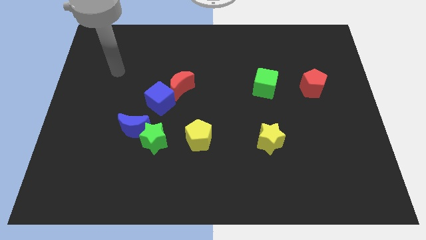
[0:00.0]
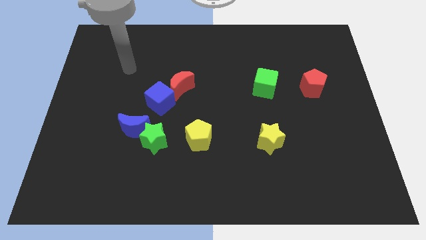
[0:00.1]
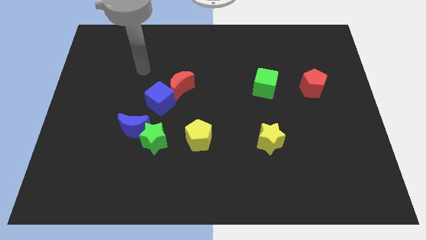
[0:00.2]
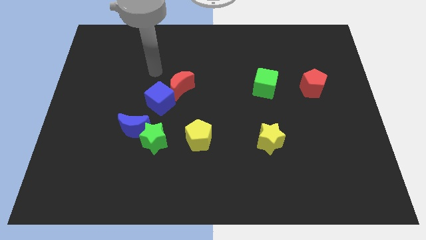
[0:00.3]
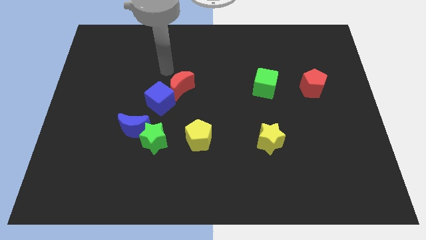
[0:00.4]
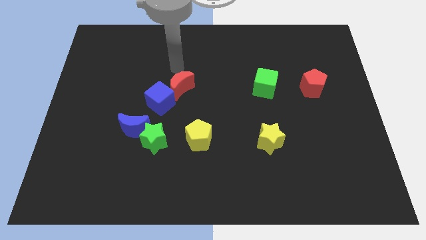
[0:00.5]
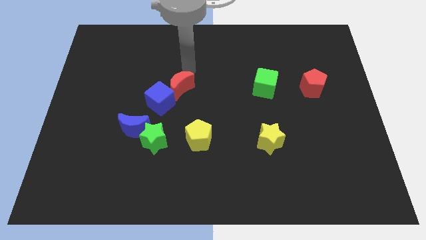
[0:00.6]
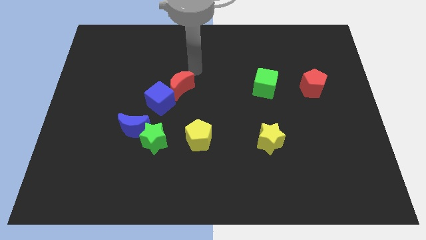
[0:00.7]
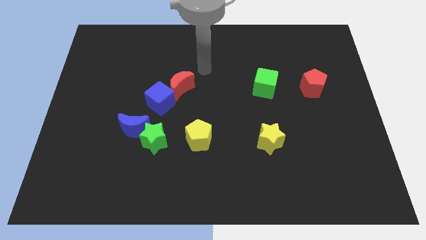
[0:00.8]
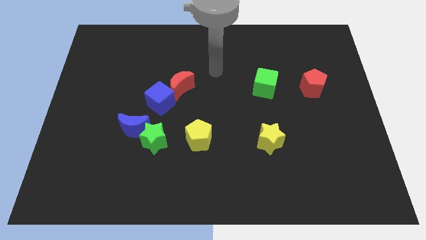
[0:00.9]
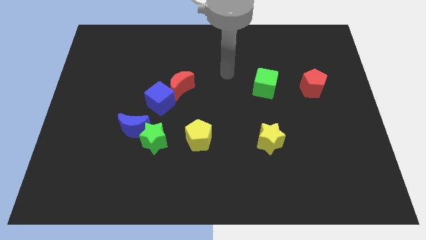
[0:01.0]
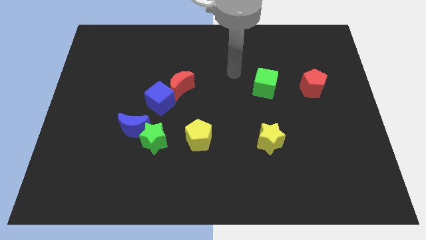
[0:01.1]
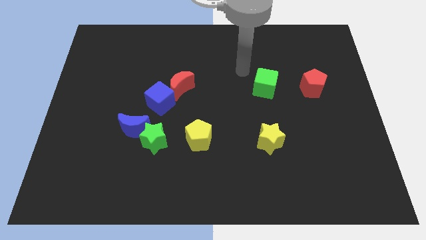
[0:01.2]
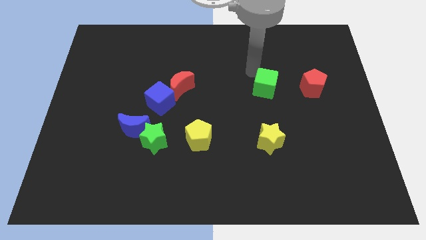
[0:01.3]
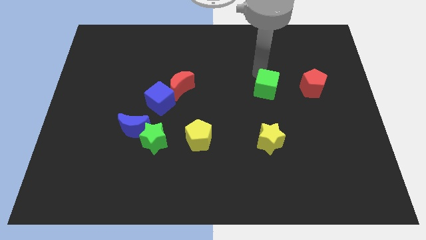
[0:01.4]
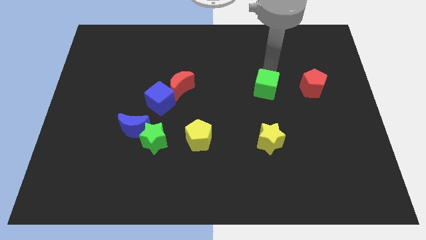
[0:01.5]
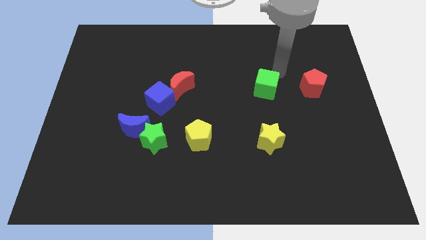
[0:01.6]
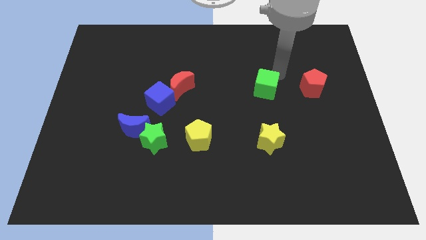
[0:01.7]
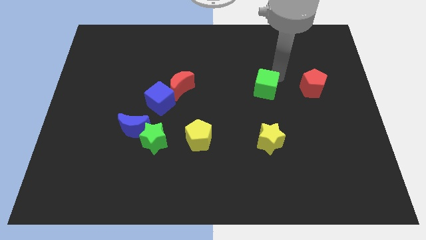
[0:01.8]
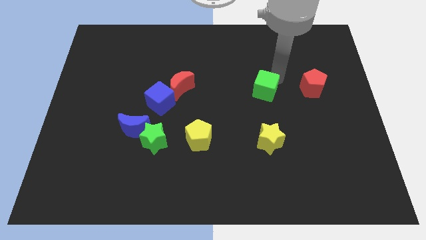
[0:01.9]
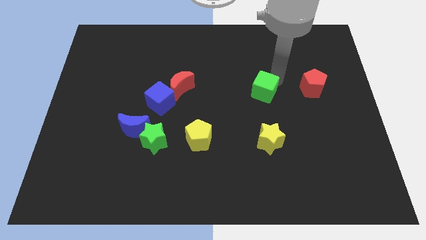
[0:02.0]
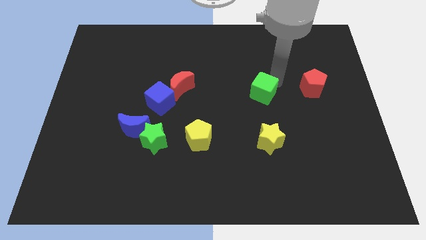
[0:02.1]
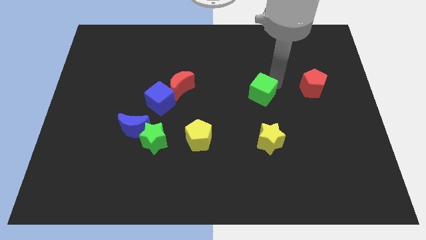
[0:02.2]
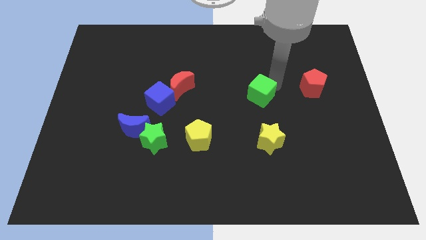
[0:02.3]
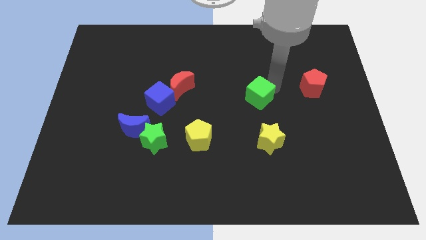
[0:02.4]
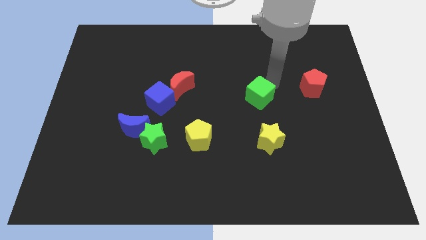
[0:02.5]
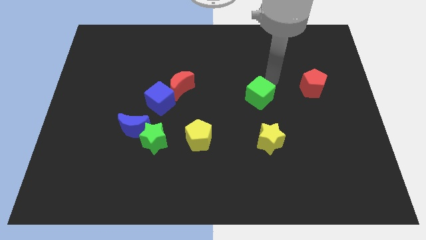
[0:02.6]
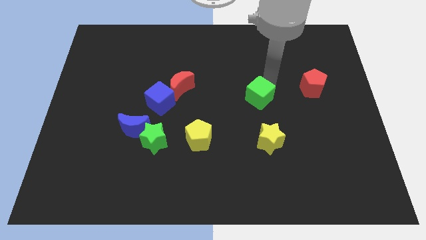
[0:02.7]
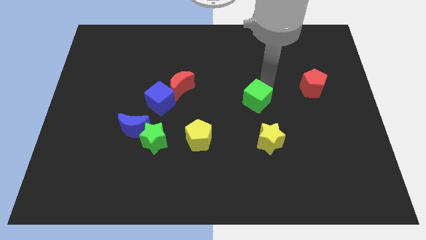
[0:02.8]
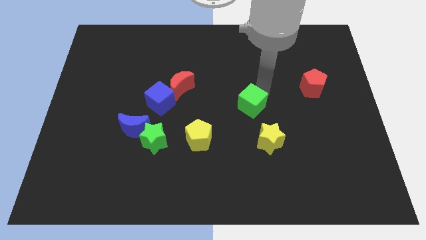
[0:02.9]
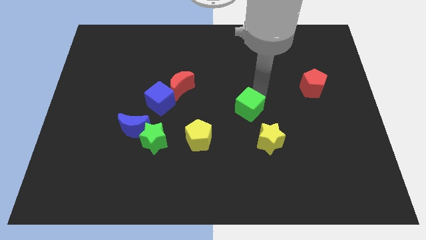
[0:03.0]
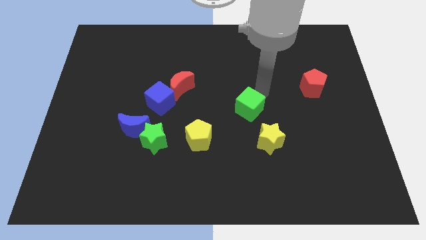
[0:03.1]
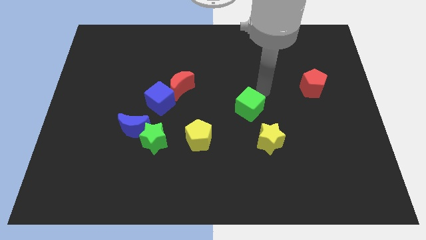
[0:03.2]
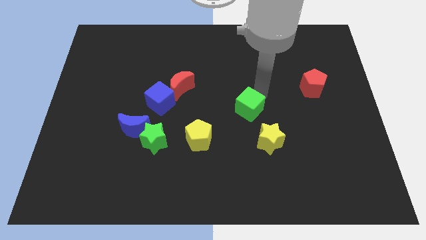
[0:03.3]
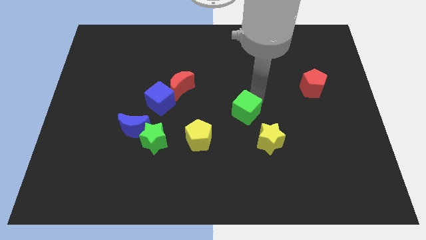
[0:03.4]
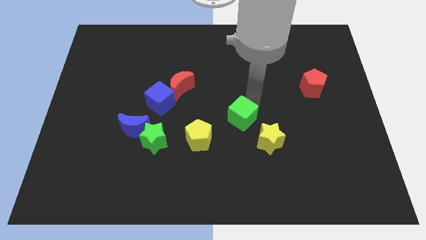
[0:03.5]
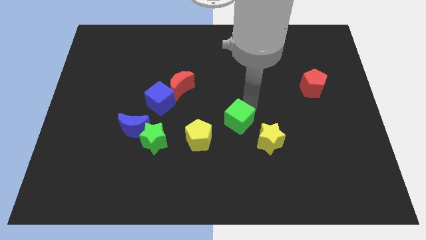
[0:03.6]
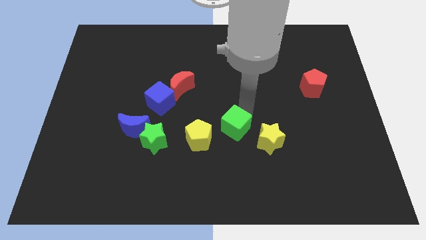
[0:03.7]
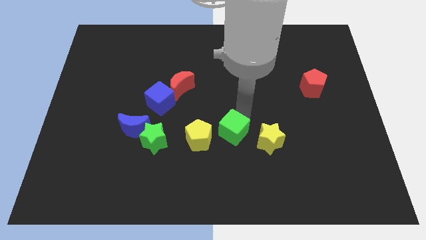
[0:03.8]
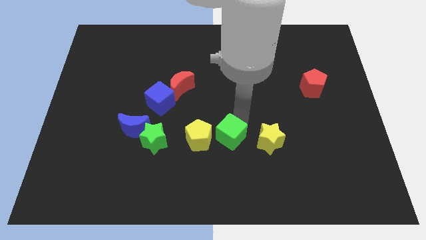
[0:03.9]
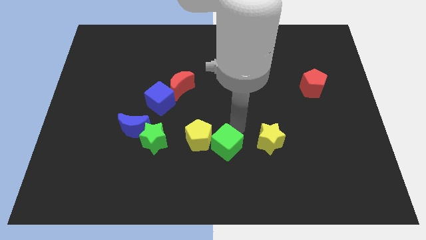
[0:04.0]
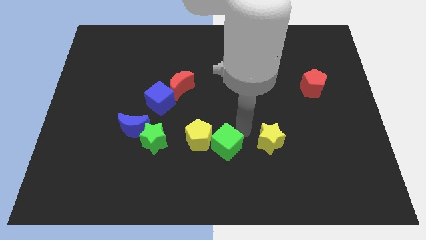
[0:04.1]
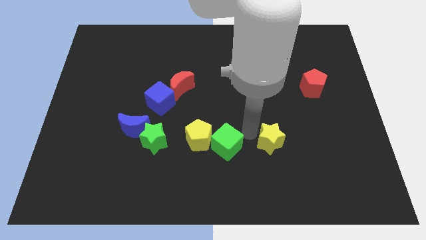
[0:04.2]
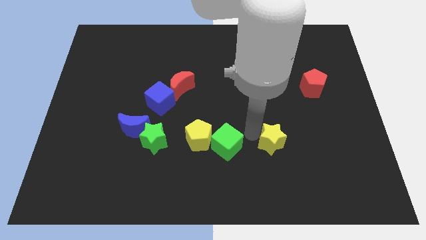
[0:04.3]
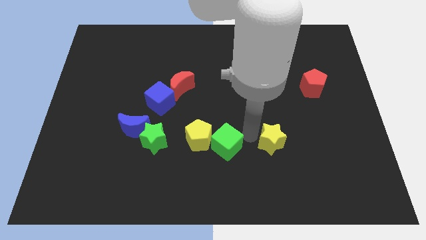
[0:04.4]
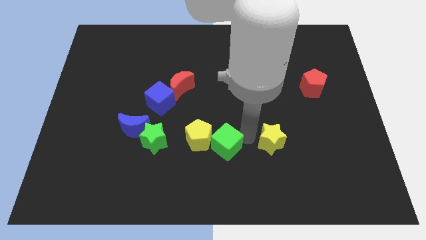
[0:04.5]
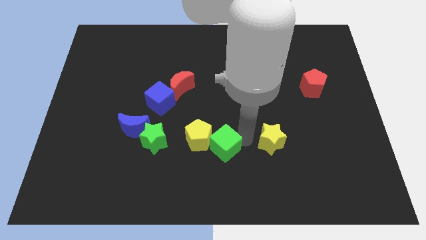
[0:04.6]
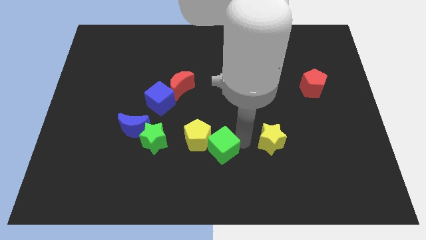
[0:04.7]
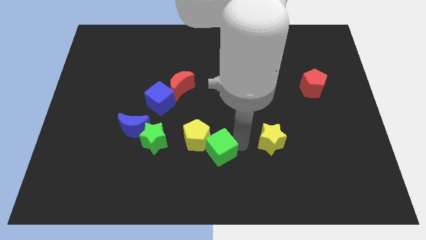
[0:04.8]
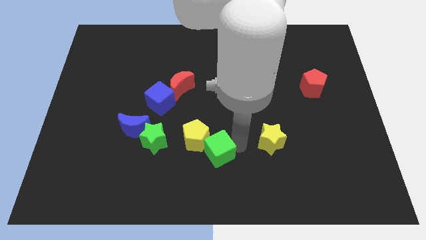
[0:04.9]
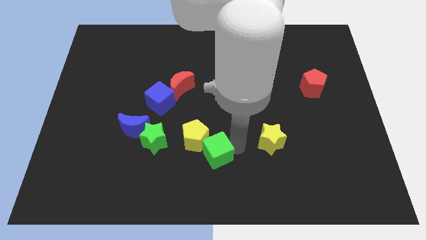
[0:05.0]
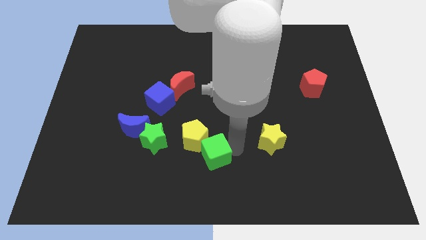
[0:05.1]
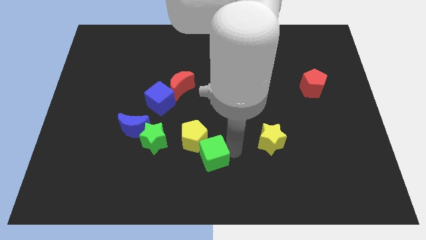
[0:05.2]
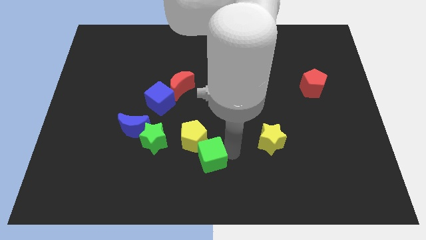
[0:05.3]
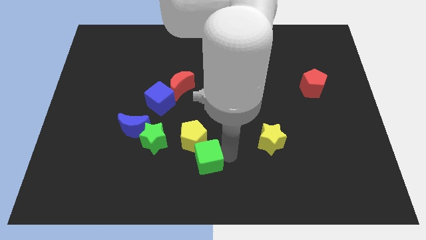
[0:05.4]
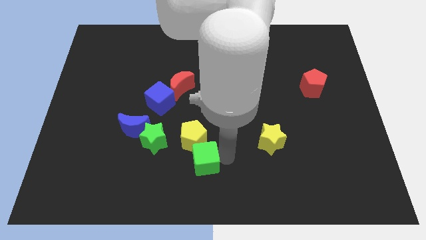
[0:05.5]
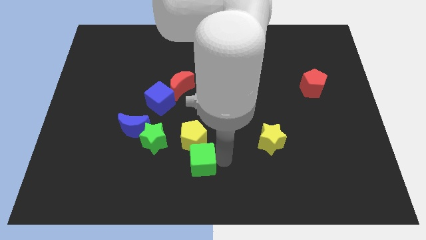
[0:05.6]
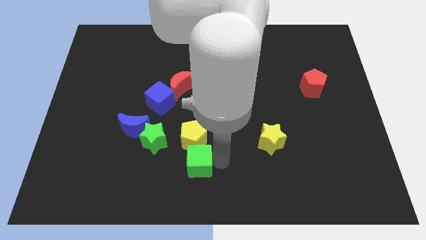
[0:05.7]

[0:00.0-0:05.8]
slide the green cube diagonally down and to the right of the green star

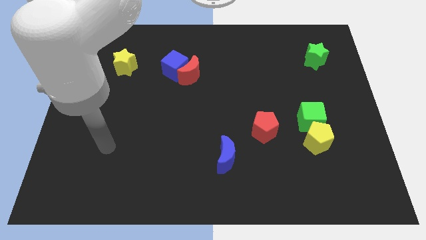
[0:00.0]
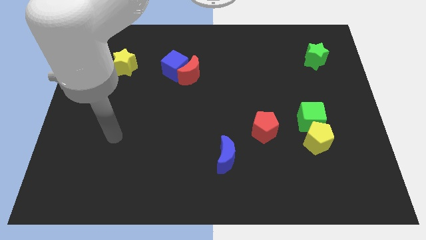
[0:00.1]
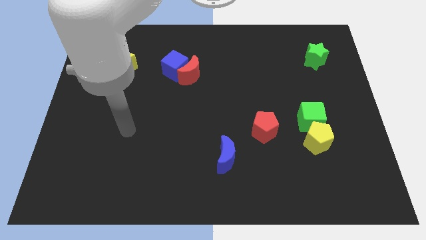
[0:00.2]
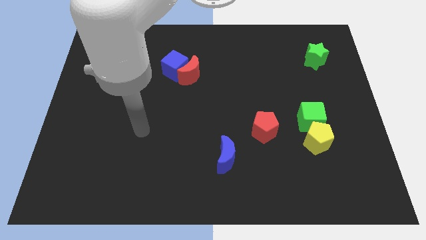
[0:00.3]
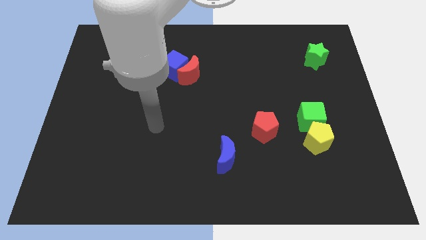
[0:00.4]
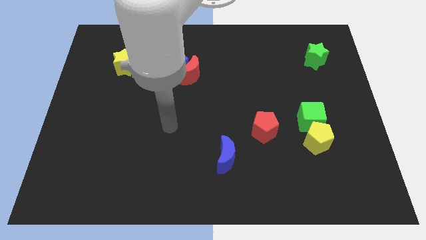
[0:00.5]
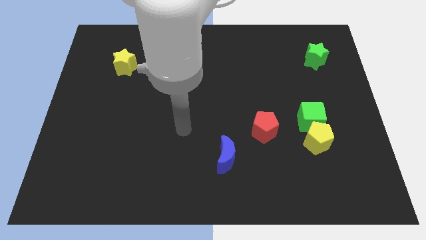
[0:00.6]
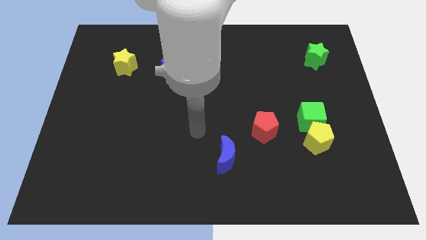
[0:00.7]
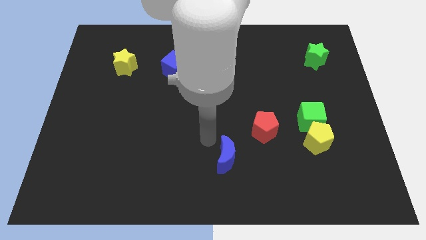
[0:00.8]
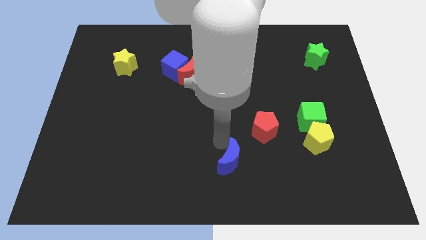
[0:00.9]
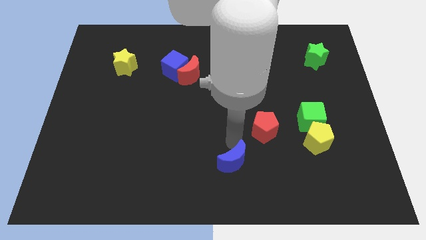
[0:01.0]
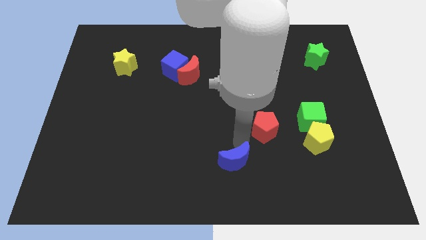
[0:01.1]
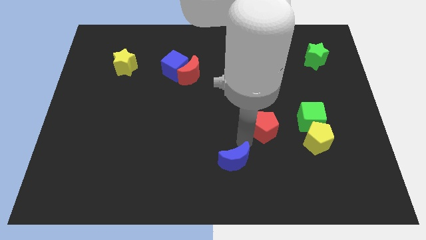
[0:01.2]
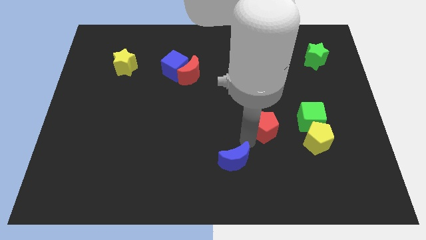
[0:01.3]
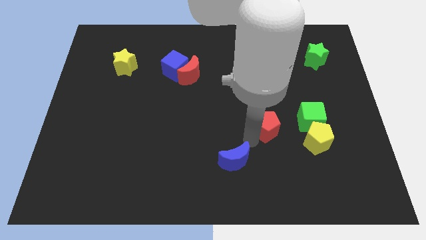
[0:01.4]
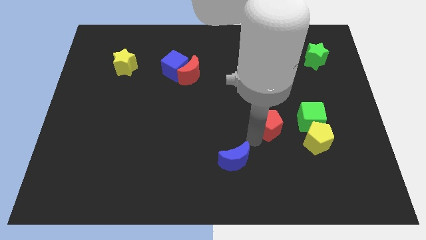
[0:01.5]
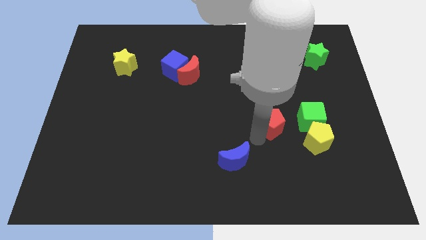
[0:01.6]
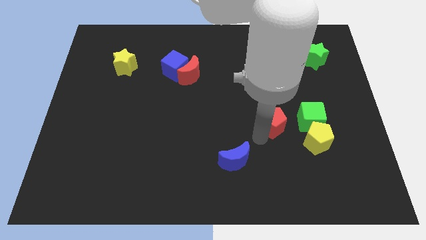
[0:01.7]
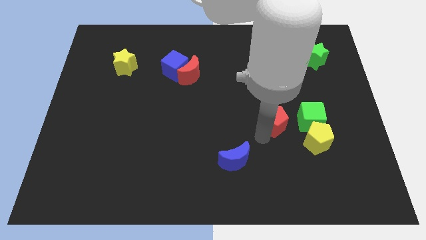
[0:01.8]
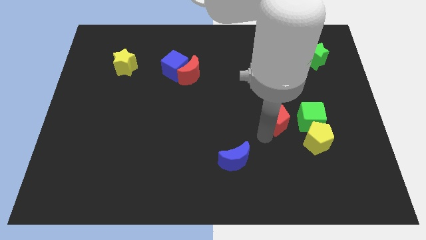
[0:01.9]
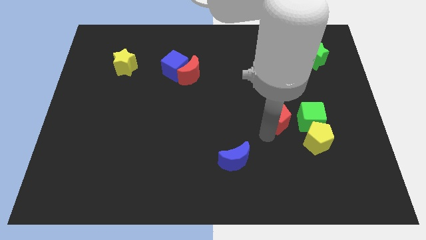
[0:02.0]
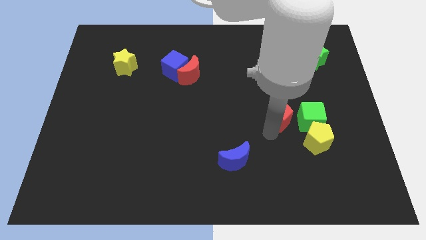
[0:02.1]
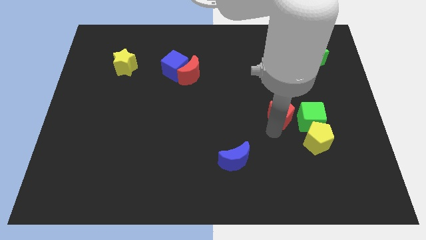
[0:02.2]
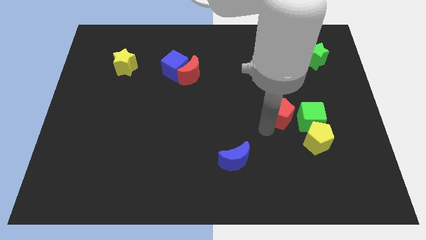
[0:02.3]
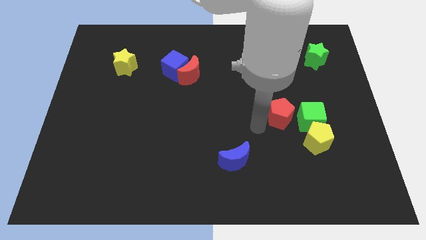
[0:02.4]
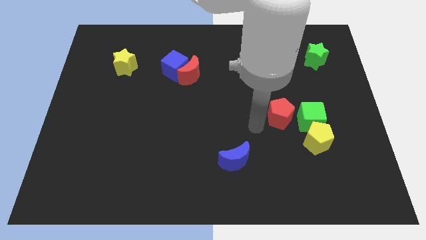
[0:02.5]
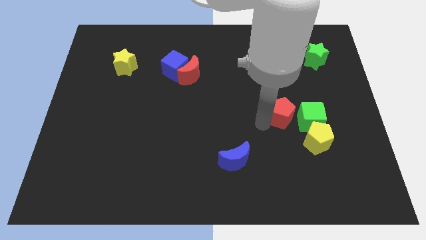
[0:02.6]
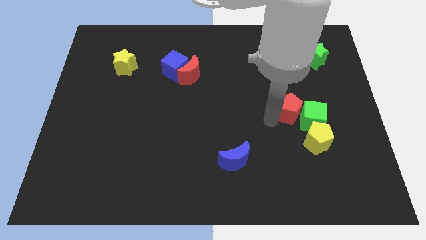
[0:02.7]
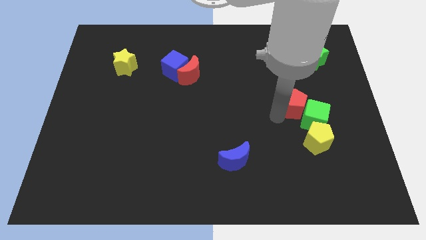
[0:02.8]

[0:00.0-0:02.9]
put the red pentagon above the yellow pentagon
